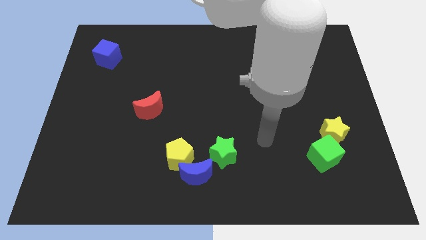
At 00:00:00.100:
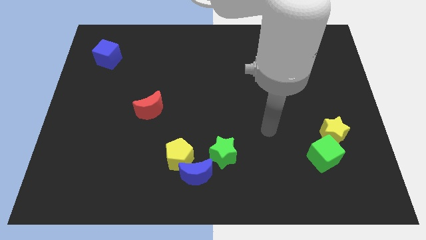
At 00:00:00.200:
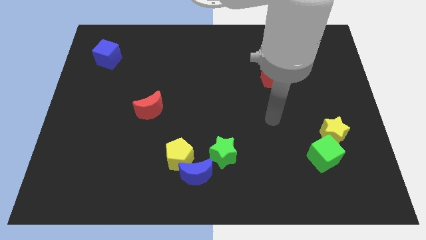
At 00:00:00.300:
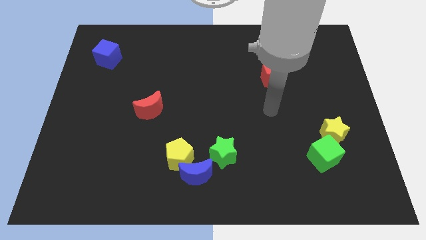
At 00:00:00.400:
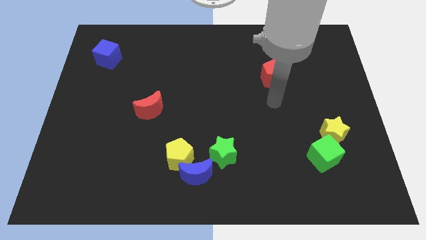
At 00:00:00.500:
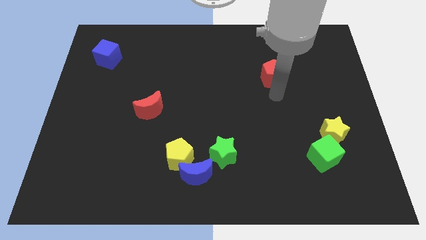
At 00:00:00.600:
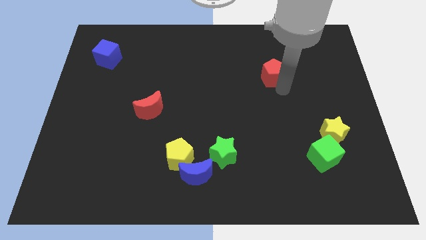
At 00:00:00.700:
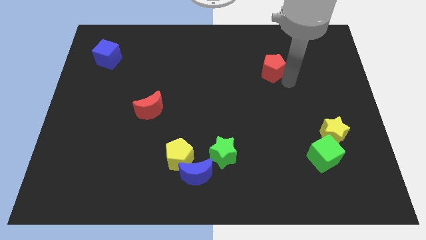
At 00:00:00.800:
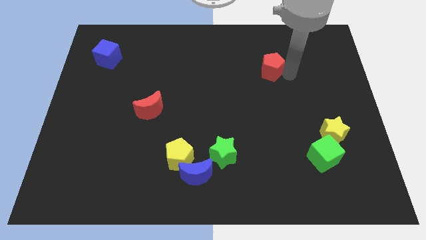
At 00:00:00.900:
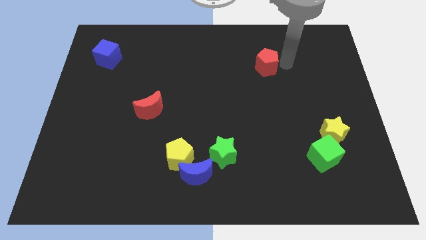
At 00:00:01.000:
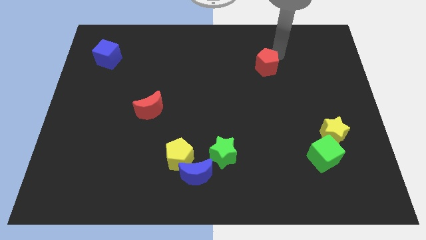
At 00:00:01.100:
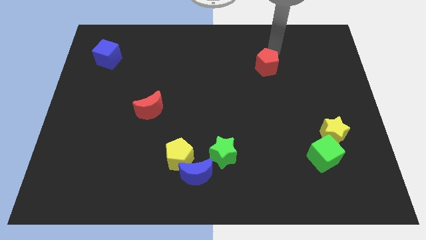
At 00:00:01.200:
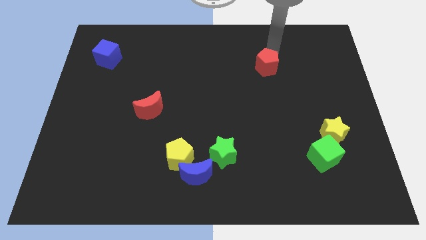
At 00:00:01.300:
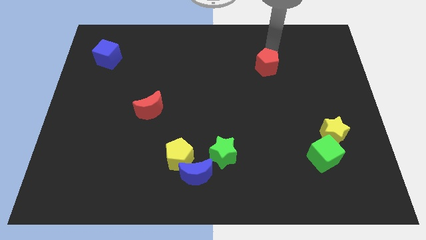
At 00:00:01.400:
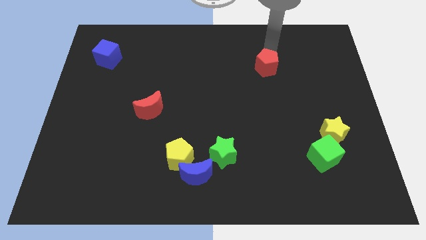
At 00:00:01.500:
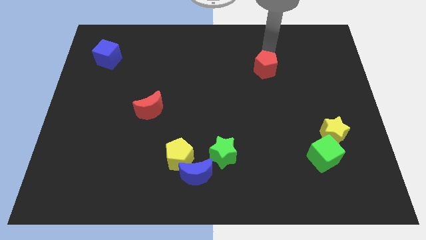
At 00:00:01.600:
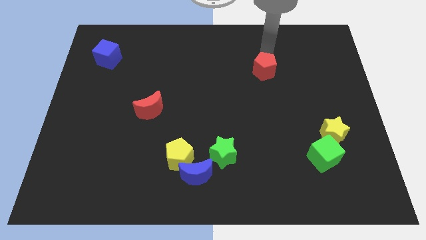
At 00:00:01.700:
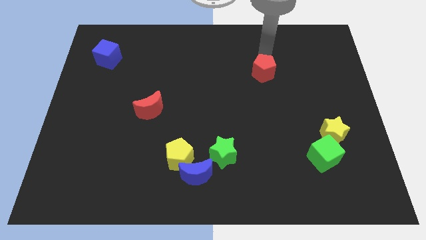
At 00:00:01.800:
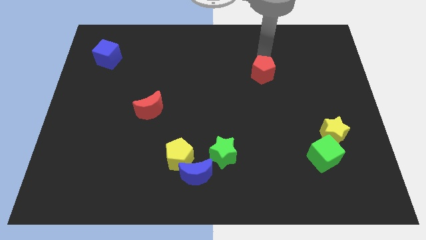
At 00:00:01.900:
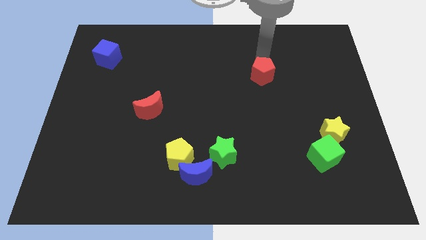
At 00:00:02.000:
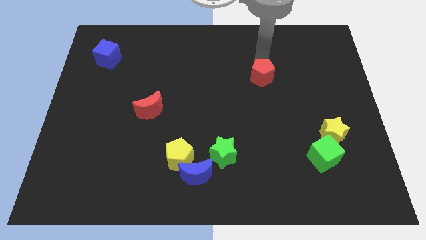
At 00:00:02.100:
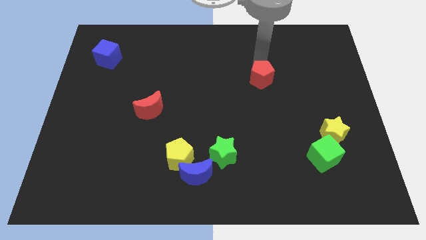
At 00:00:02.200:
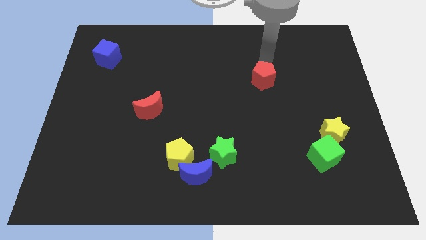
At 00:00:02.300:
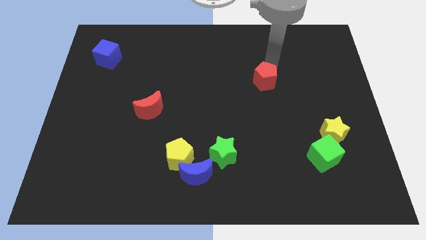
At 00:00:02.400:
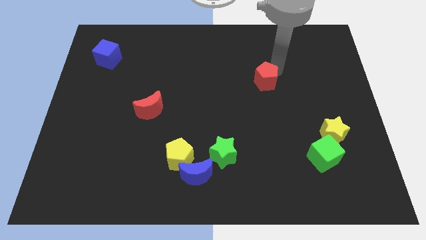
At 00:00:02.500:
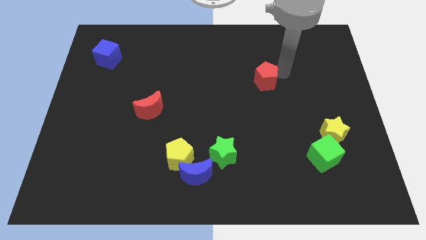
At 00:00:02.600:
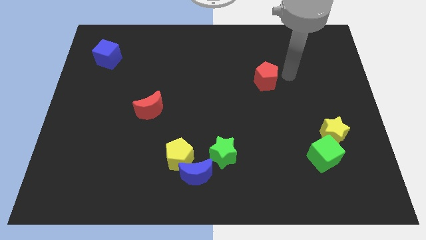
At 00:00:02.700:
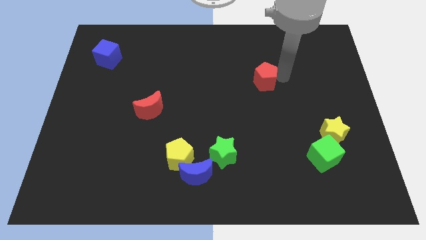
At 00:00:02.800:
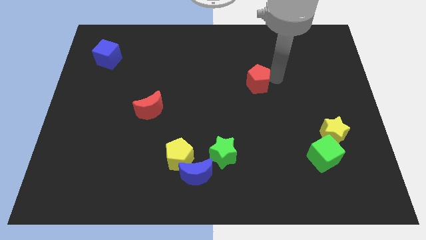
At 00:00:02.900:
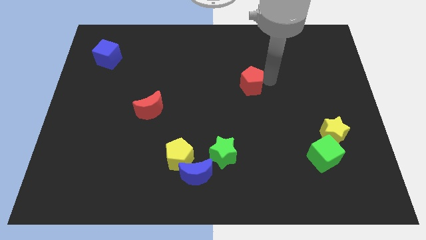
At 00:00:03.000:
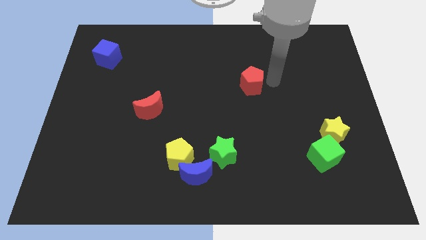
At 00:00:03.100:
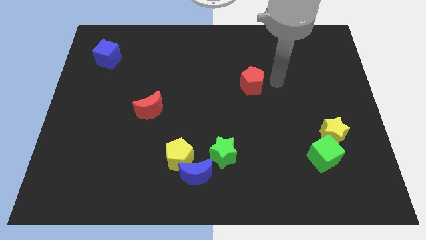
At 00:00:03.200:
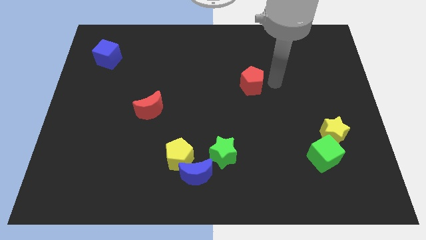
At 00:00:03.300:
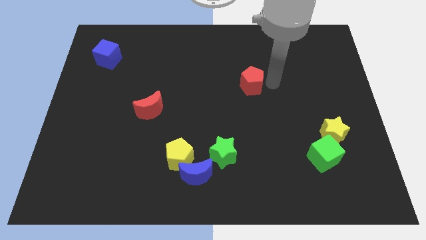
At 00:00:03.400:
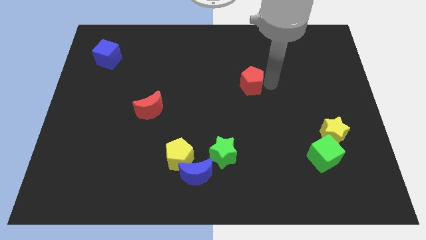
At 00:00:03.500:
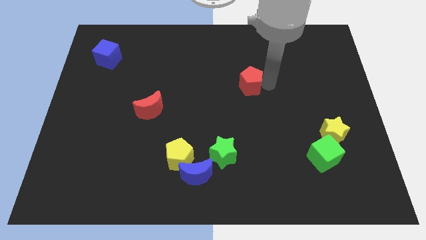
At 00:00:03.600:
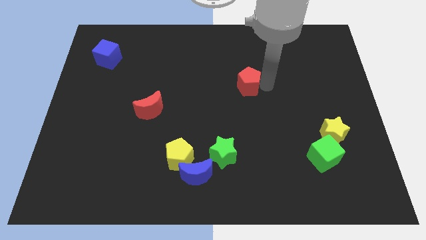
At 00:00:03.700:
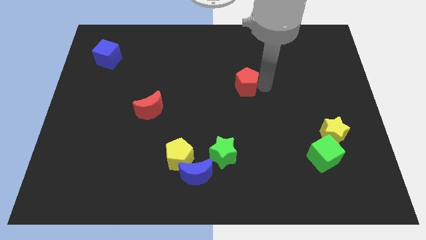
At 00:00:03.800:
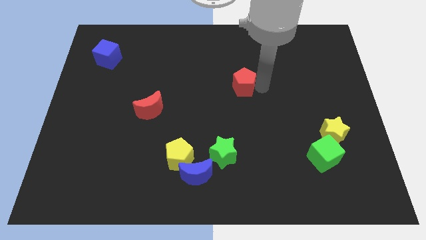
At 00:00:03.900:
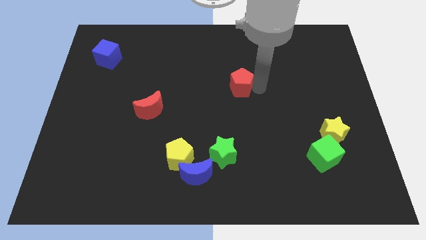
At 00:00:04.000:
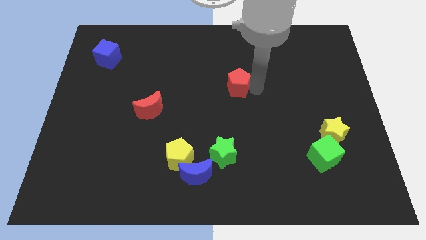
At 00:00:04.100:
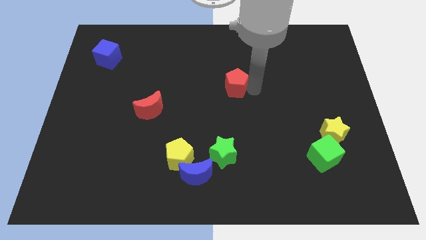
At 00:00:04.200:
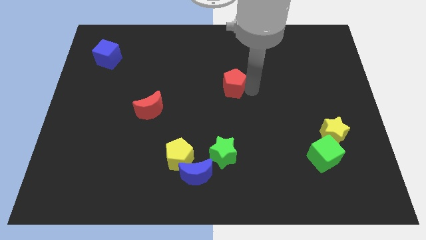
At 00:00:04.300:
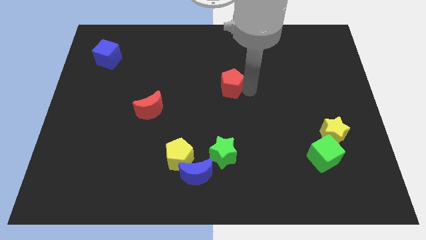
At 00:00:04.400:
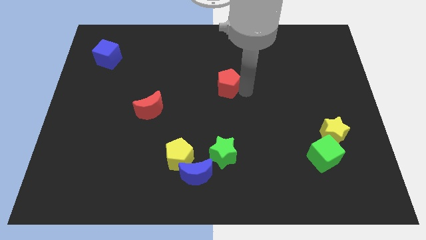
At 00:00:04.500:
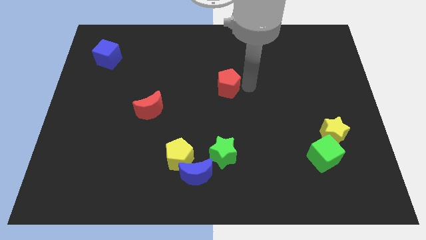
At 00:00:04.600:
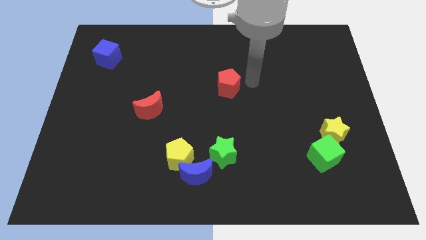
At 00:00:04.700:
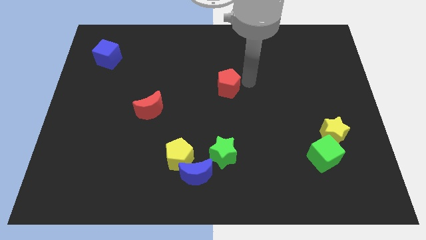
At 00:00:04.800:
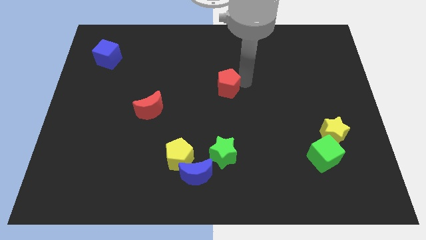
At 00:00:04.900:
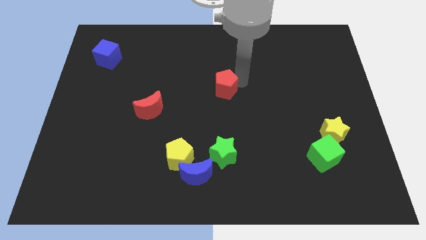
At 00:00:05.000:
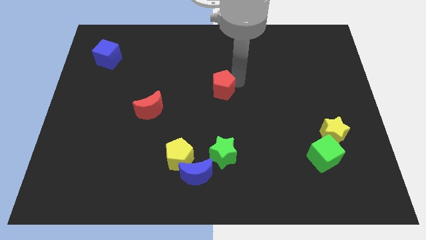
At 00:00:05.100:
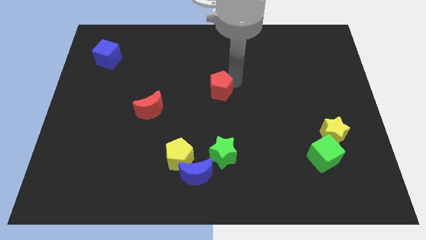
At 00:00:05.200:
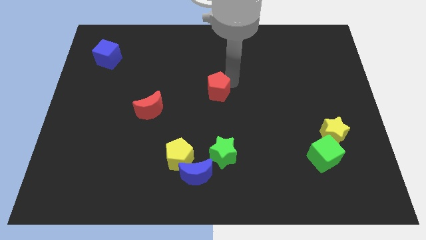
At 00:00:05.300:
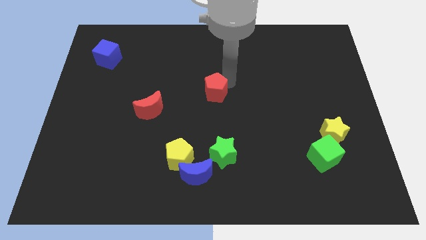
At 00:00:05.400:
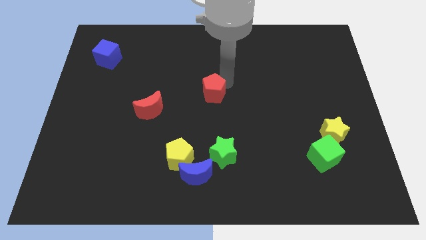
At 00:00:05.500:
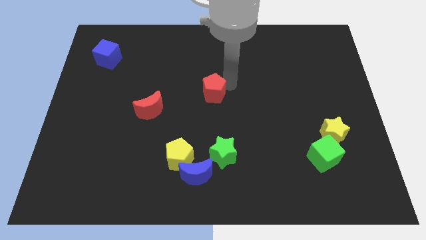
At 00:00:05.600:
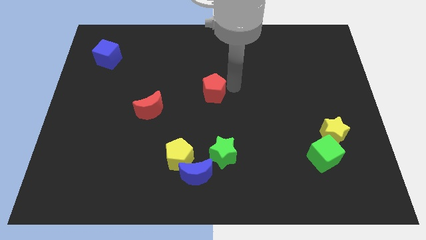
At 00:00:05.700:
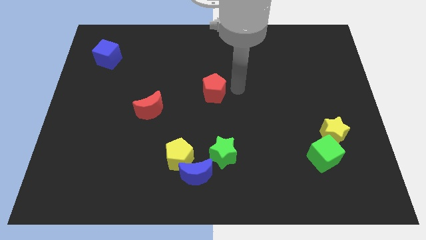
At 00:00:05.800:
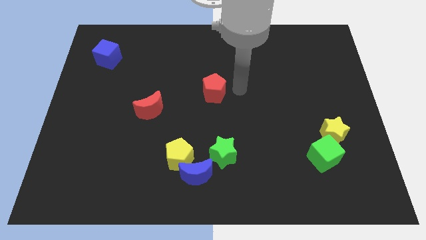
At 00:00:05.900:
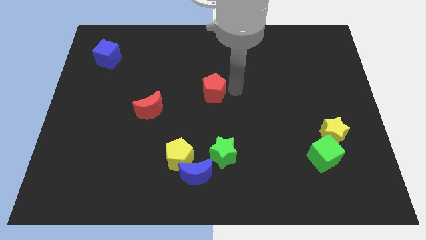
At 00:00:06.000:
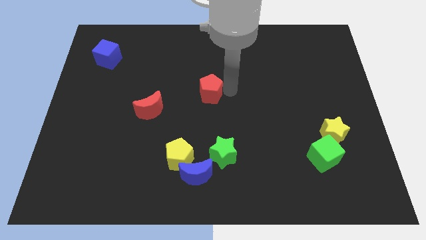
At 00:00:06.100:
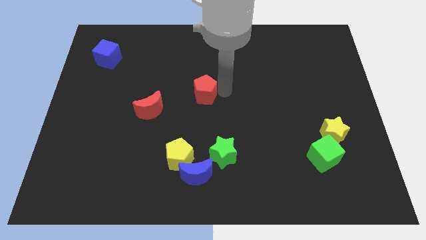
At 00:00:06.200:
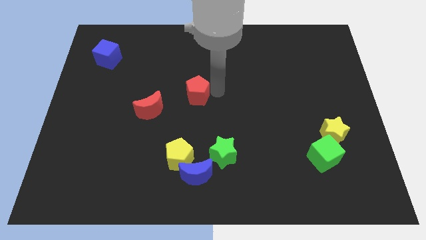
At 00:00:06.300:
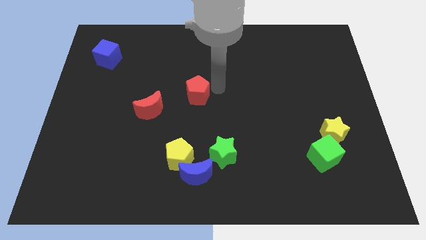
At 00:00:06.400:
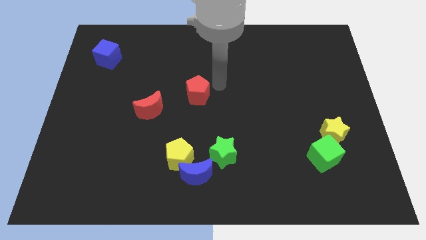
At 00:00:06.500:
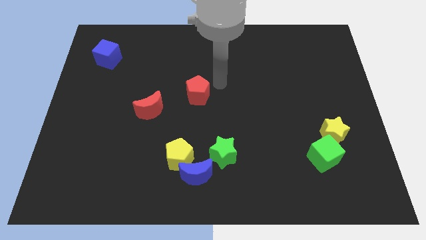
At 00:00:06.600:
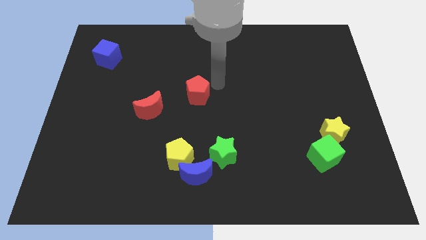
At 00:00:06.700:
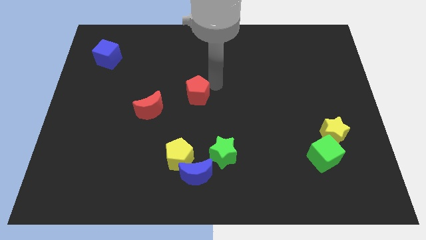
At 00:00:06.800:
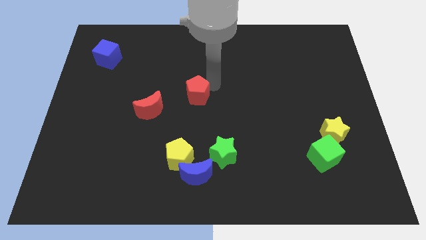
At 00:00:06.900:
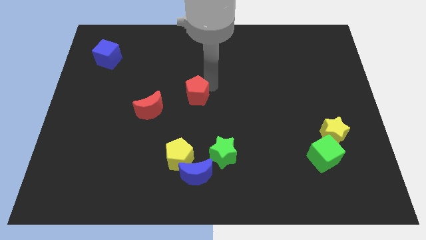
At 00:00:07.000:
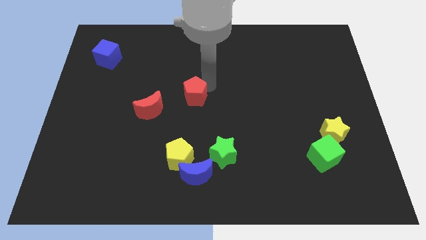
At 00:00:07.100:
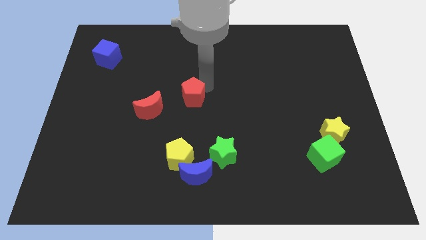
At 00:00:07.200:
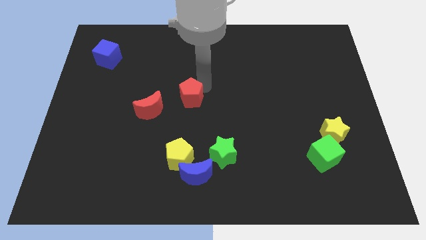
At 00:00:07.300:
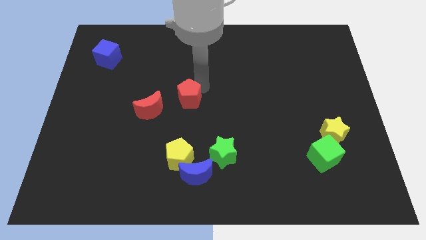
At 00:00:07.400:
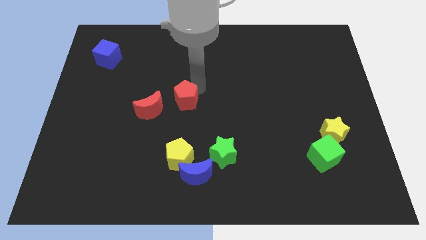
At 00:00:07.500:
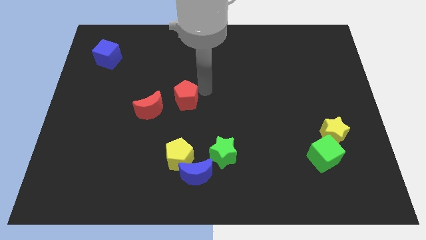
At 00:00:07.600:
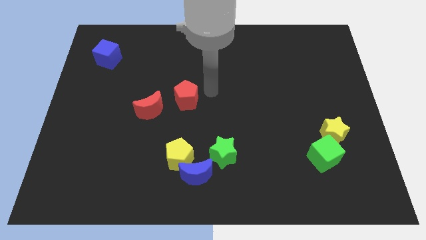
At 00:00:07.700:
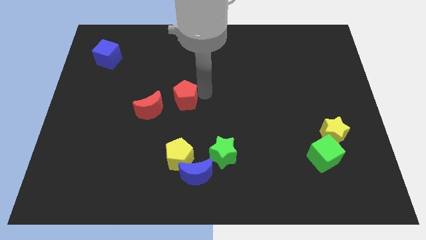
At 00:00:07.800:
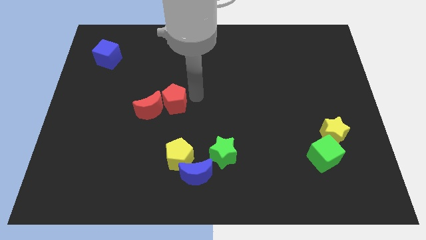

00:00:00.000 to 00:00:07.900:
move the red pentagon next to the red moon

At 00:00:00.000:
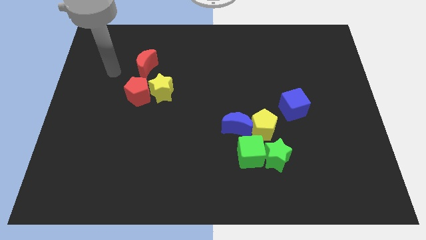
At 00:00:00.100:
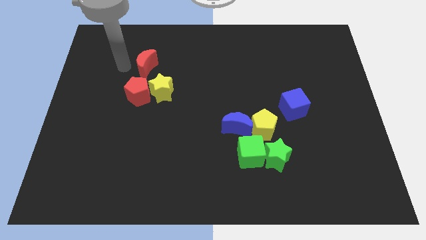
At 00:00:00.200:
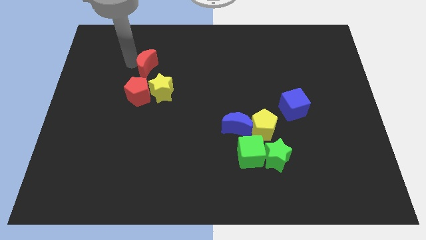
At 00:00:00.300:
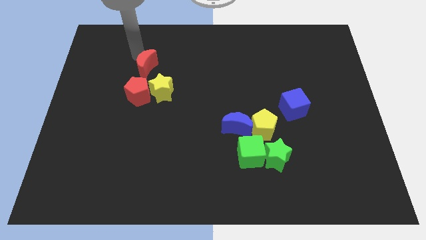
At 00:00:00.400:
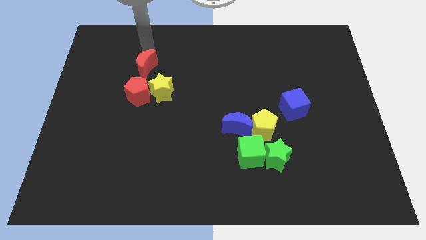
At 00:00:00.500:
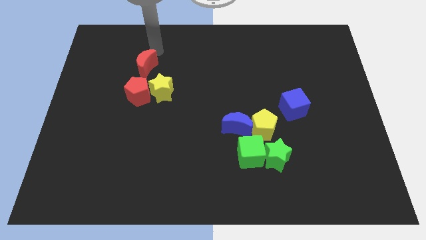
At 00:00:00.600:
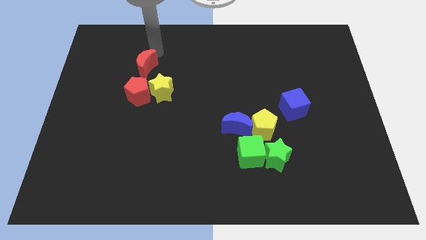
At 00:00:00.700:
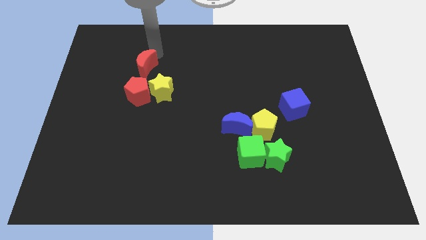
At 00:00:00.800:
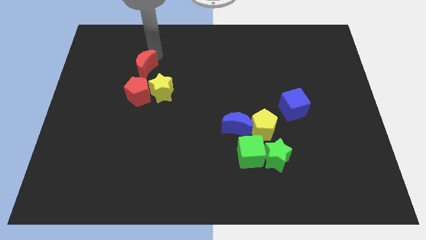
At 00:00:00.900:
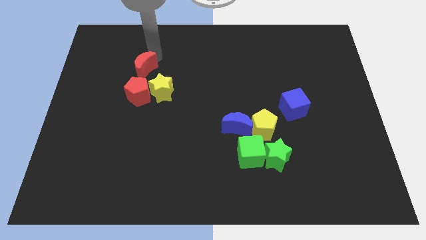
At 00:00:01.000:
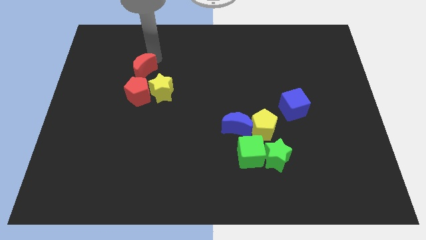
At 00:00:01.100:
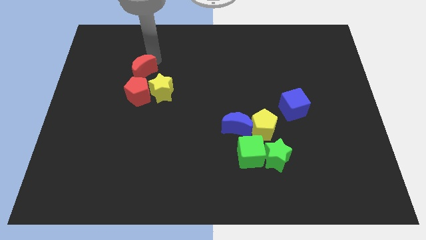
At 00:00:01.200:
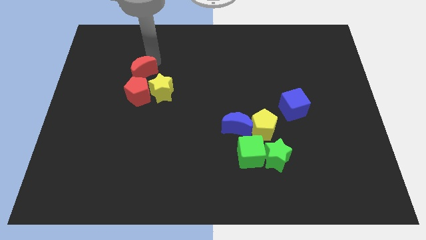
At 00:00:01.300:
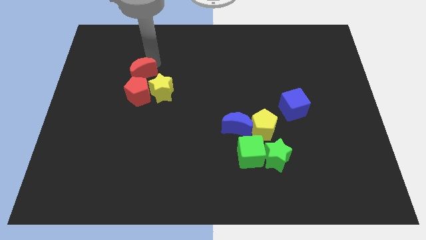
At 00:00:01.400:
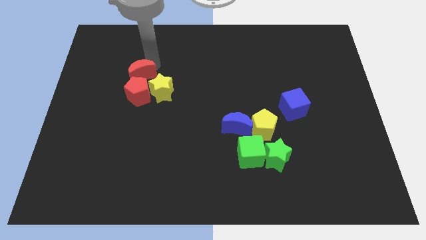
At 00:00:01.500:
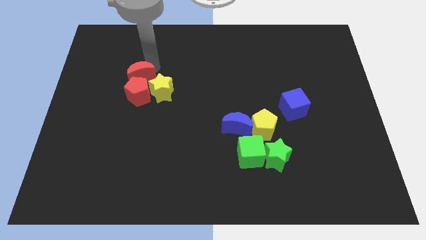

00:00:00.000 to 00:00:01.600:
slide the red moon to the red pentagon
